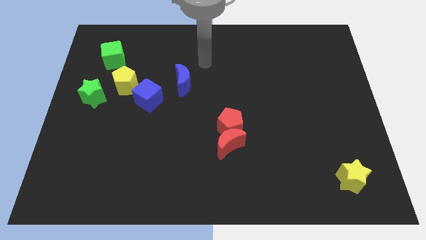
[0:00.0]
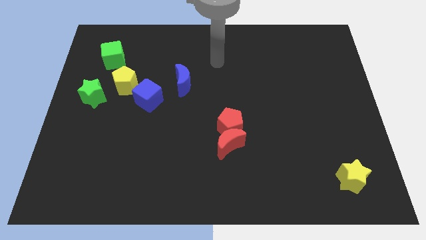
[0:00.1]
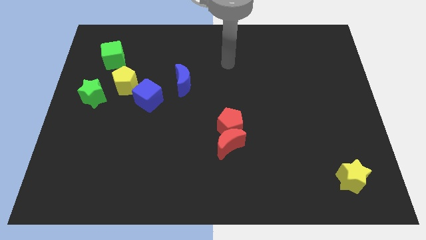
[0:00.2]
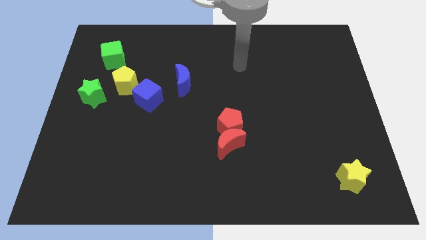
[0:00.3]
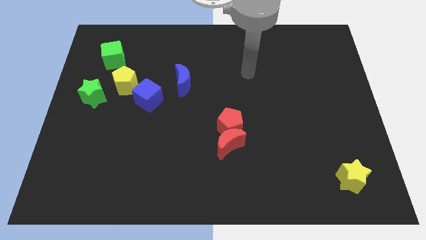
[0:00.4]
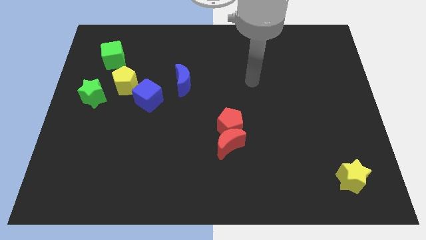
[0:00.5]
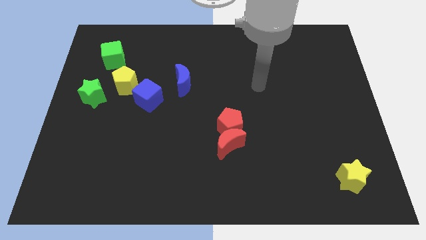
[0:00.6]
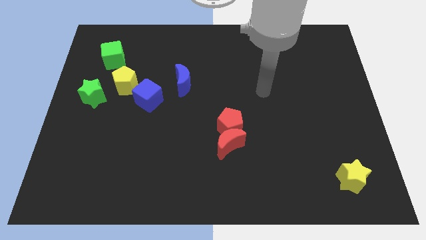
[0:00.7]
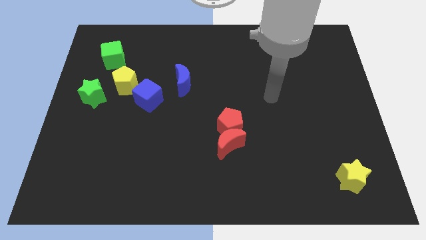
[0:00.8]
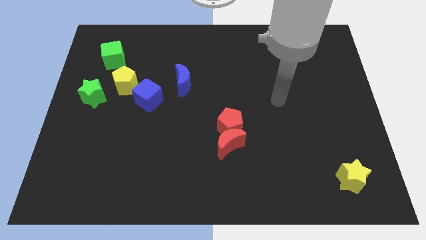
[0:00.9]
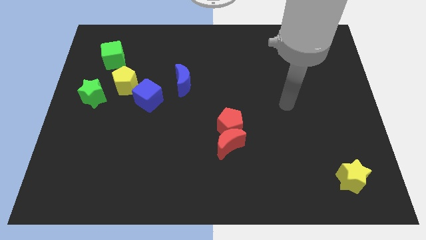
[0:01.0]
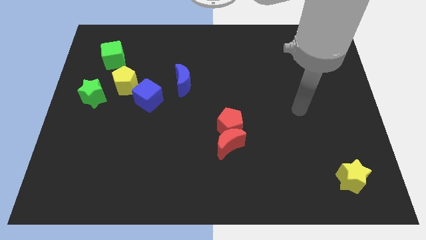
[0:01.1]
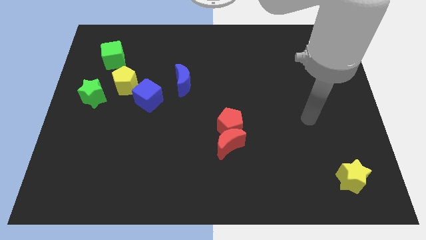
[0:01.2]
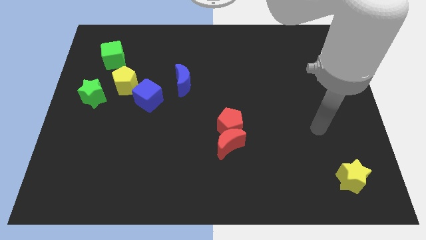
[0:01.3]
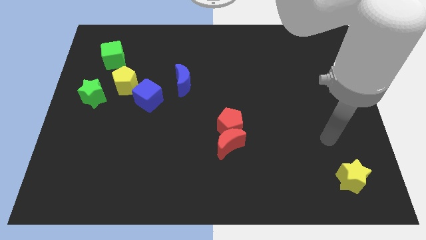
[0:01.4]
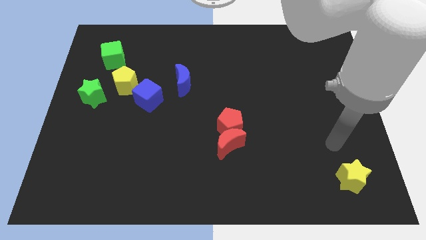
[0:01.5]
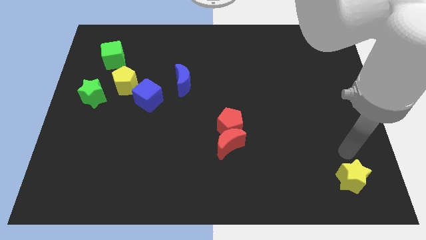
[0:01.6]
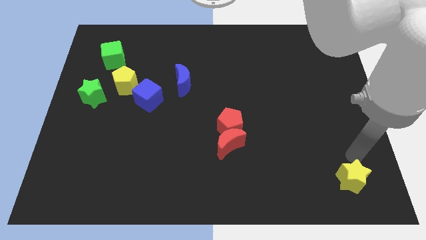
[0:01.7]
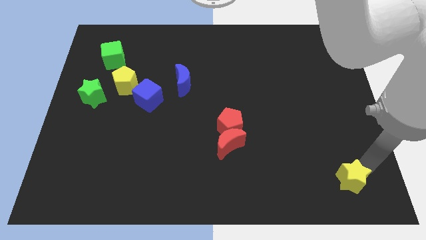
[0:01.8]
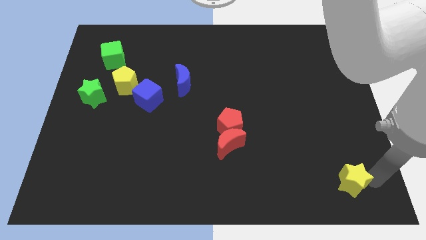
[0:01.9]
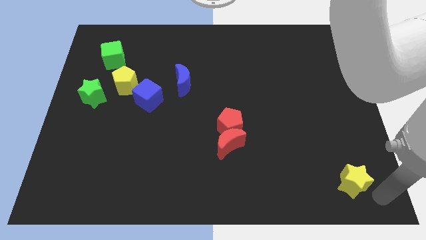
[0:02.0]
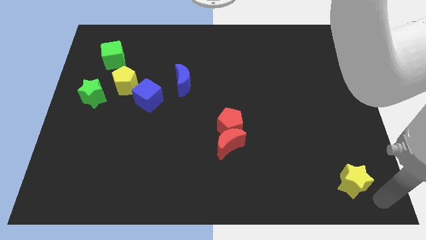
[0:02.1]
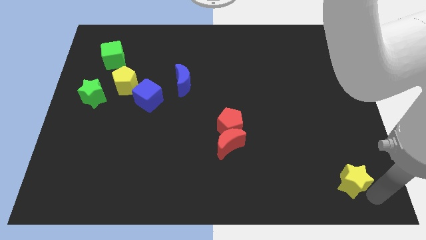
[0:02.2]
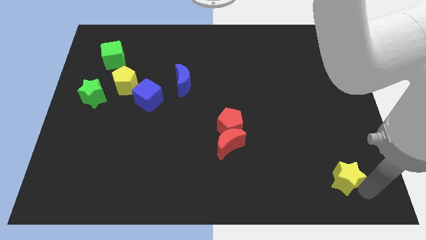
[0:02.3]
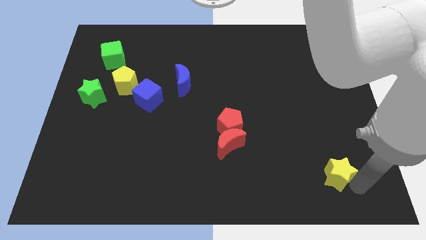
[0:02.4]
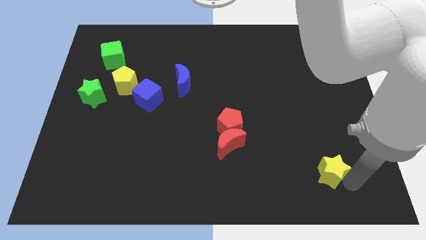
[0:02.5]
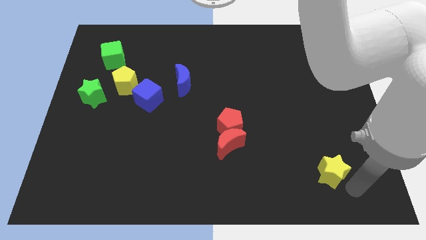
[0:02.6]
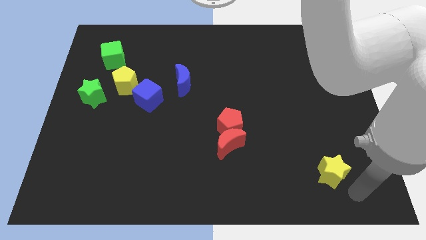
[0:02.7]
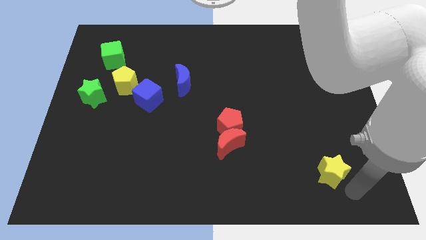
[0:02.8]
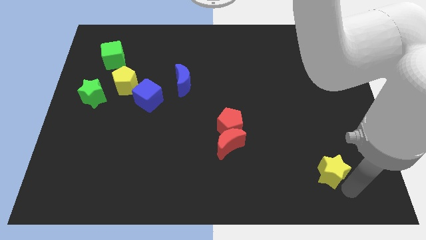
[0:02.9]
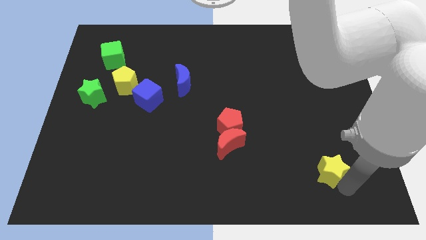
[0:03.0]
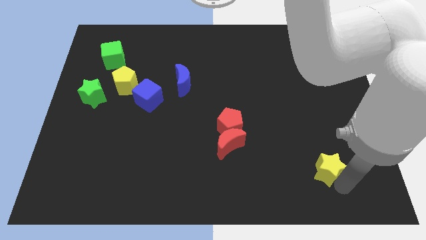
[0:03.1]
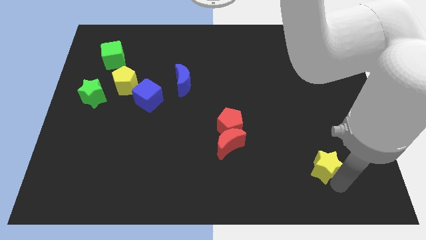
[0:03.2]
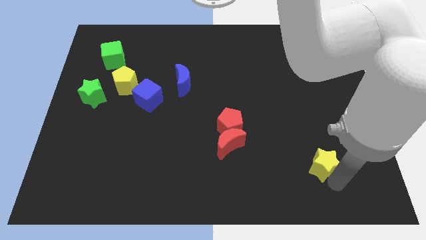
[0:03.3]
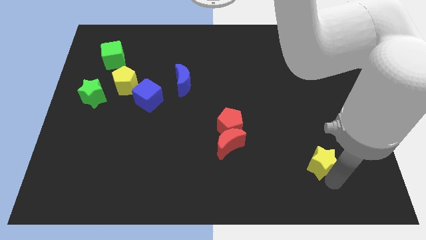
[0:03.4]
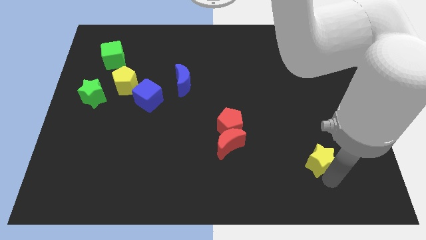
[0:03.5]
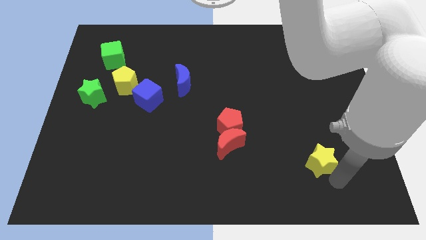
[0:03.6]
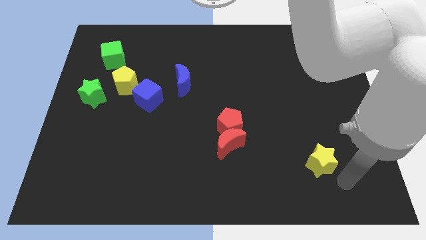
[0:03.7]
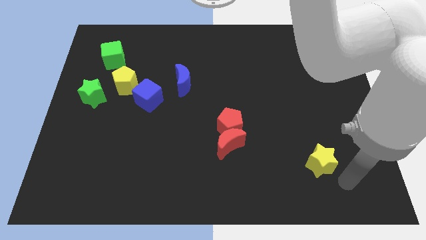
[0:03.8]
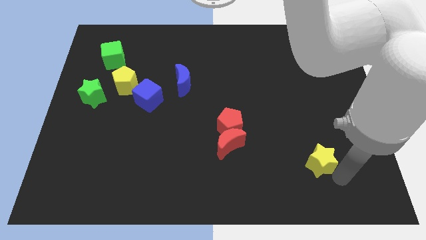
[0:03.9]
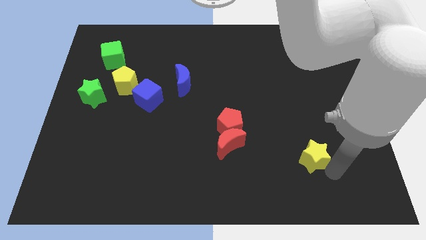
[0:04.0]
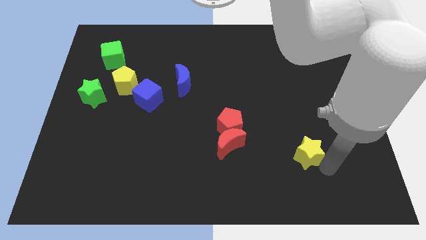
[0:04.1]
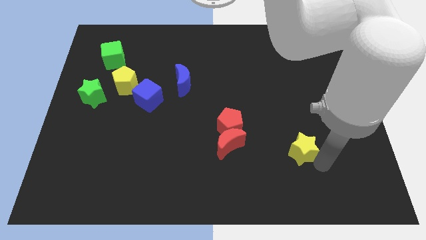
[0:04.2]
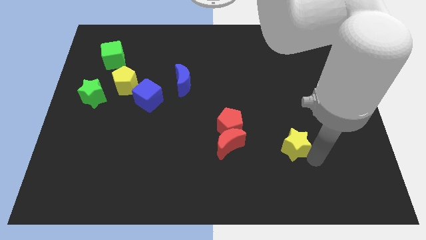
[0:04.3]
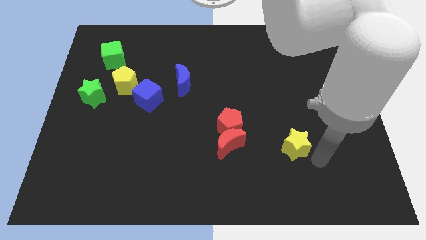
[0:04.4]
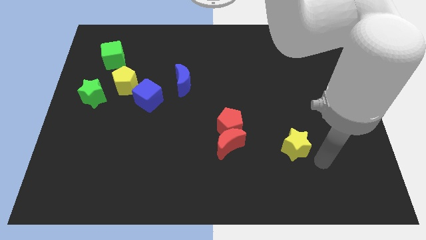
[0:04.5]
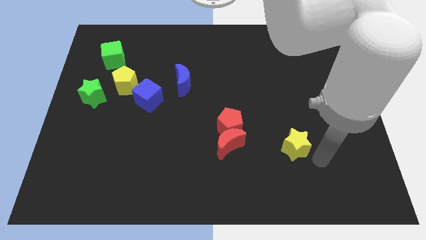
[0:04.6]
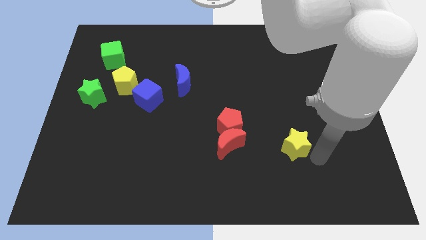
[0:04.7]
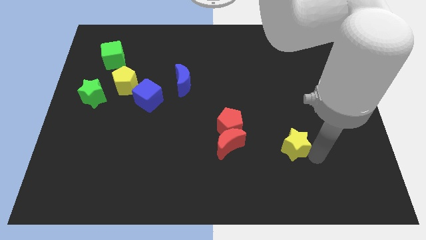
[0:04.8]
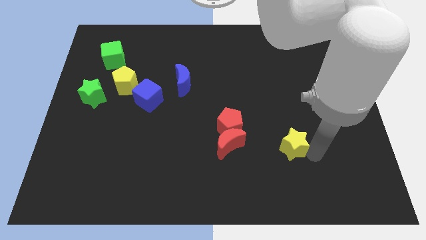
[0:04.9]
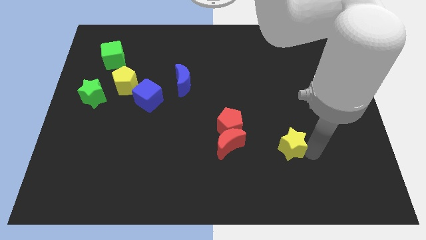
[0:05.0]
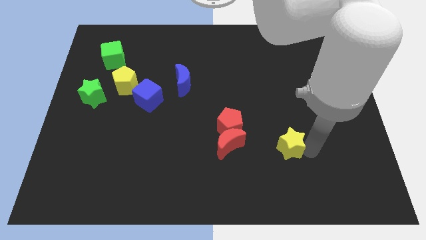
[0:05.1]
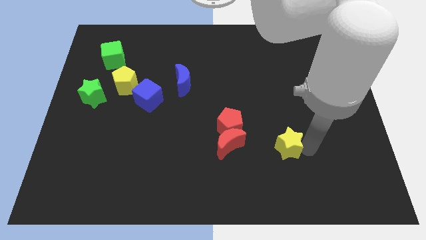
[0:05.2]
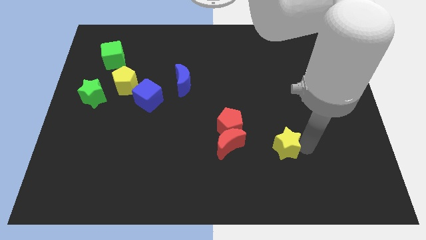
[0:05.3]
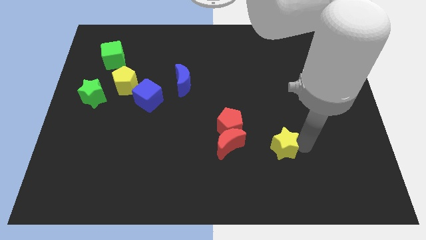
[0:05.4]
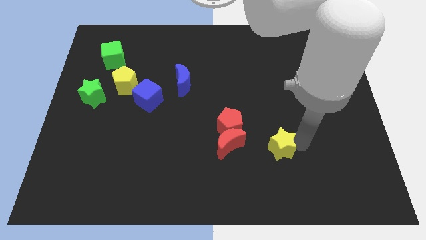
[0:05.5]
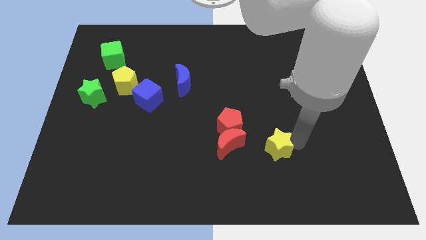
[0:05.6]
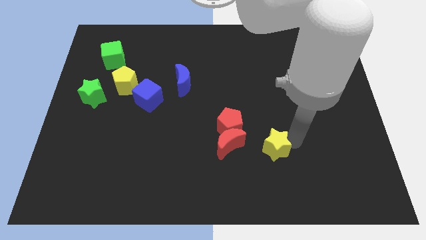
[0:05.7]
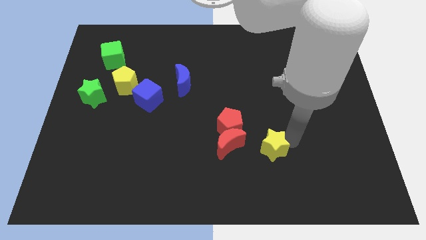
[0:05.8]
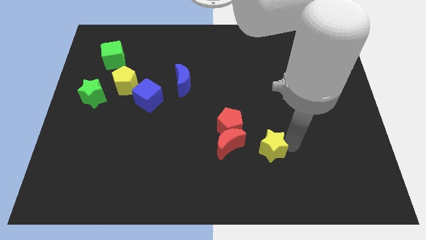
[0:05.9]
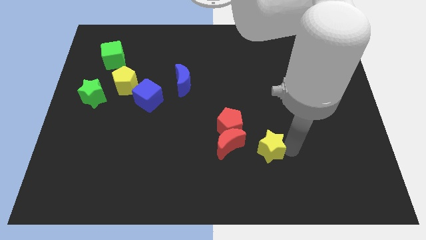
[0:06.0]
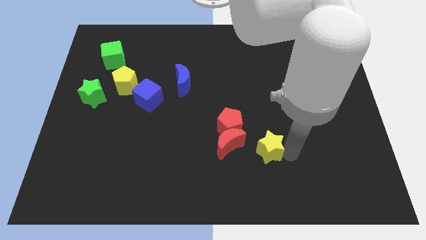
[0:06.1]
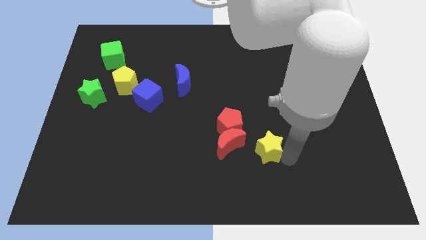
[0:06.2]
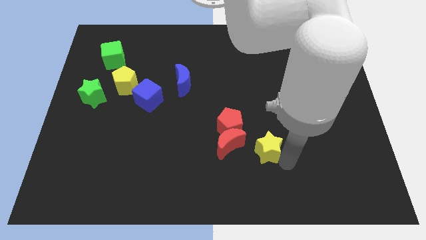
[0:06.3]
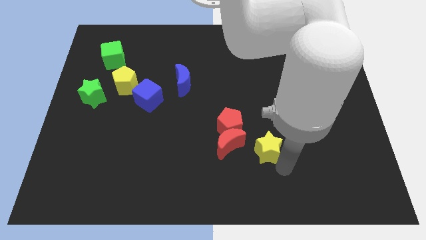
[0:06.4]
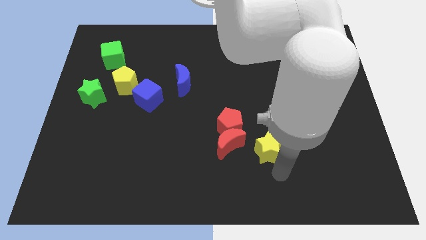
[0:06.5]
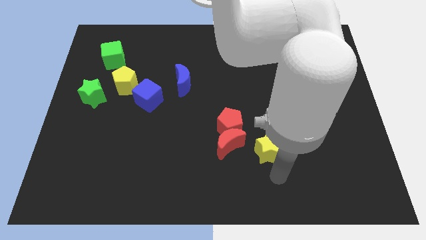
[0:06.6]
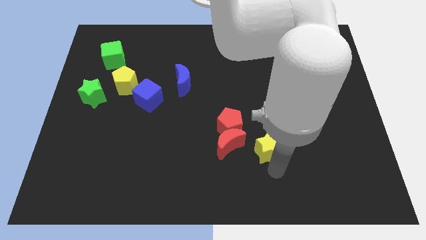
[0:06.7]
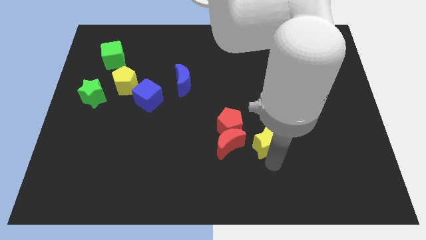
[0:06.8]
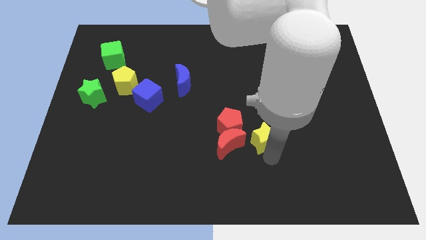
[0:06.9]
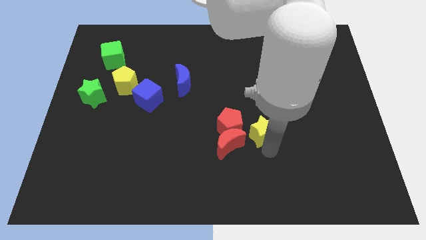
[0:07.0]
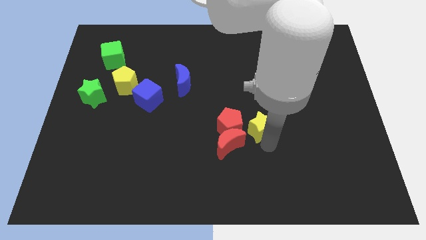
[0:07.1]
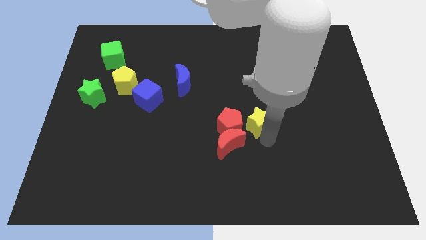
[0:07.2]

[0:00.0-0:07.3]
move the yellow star to the center of the board
